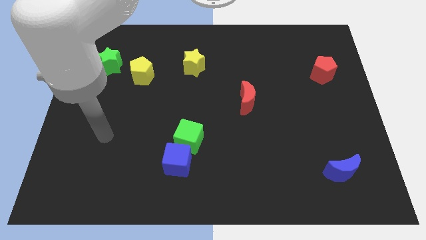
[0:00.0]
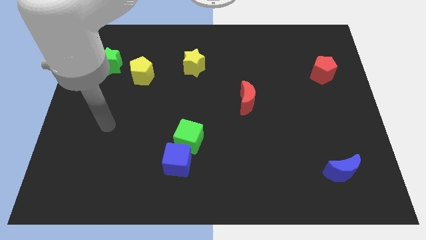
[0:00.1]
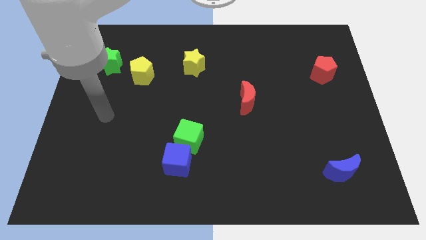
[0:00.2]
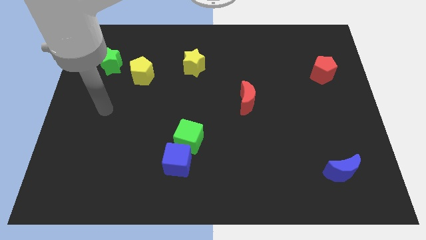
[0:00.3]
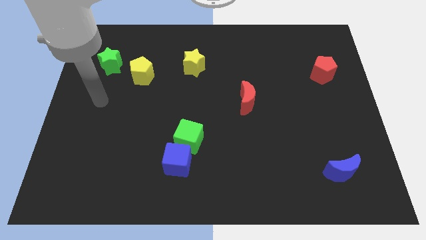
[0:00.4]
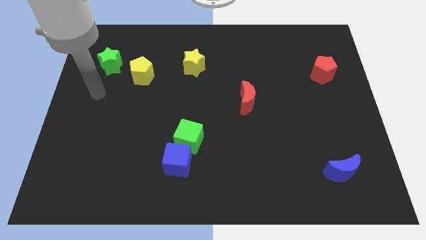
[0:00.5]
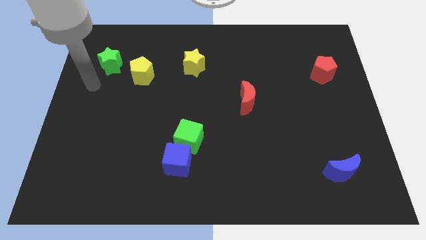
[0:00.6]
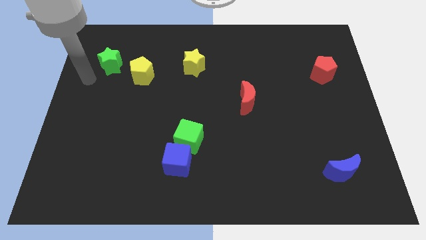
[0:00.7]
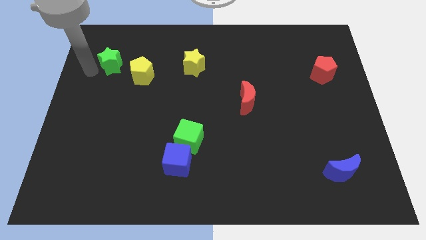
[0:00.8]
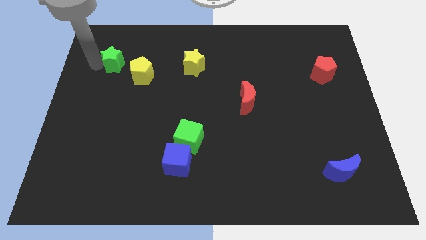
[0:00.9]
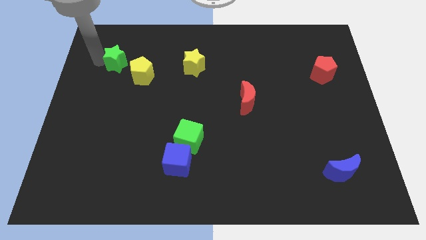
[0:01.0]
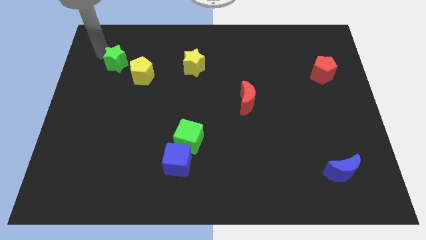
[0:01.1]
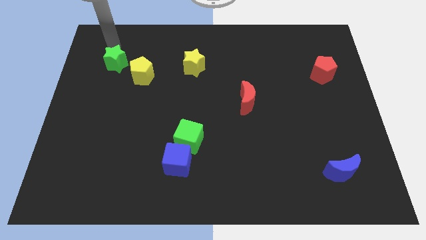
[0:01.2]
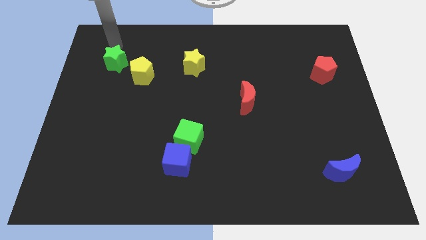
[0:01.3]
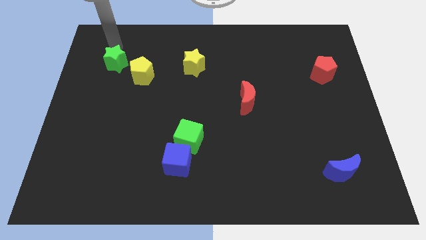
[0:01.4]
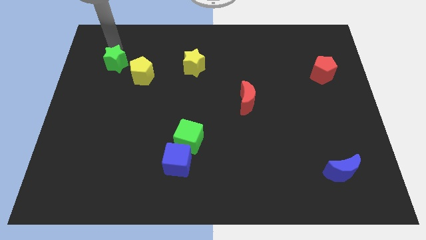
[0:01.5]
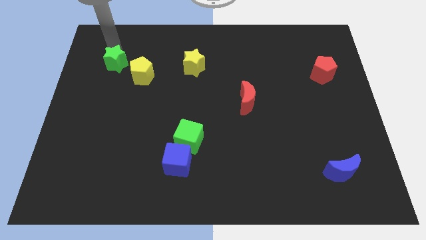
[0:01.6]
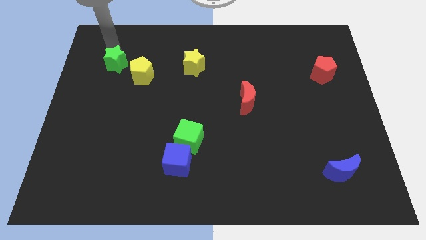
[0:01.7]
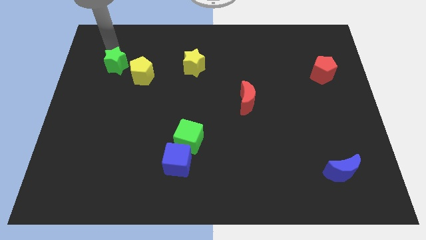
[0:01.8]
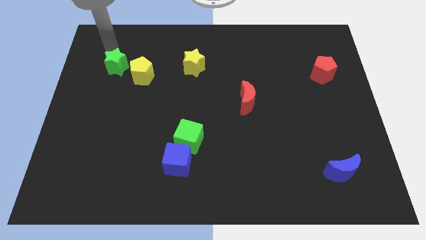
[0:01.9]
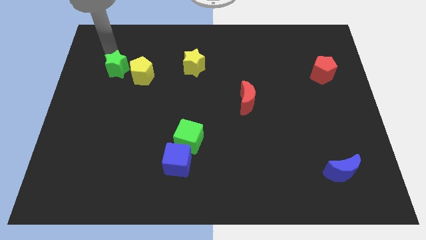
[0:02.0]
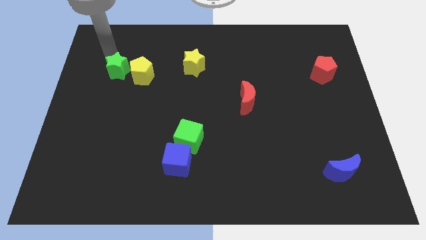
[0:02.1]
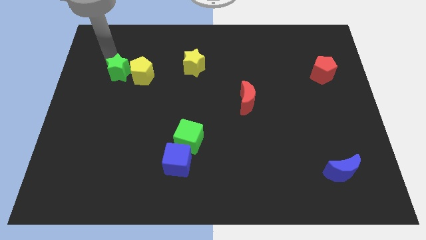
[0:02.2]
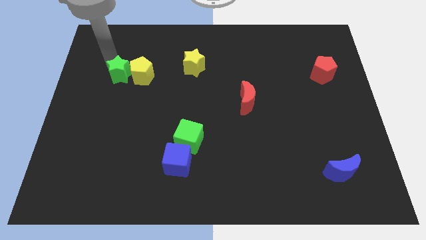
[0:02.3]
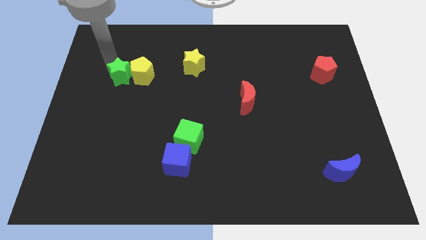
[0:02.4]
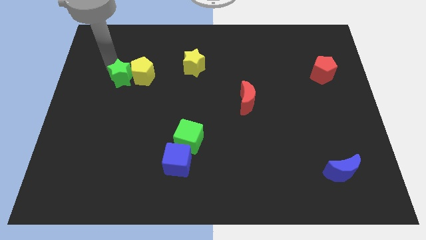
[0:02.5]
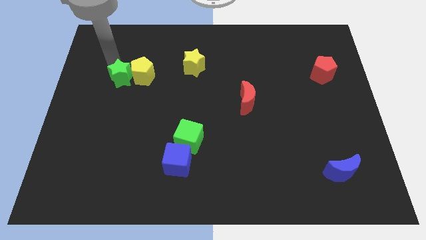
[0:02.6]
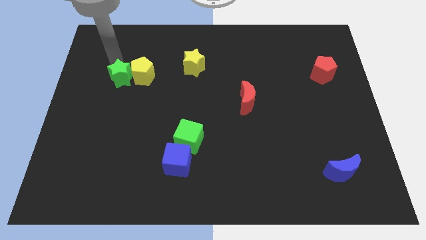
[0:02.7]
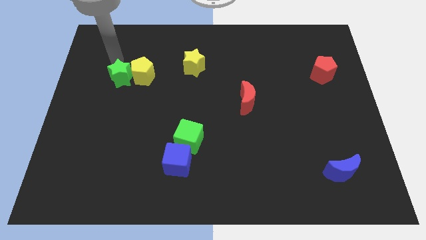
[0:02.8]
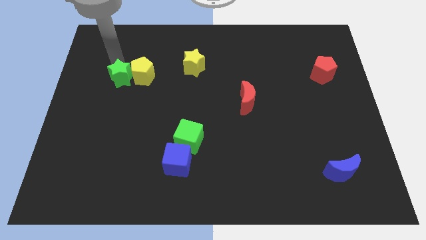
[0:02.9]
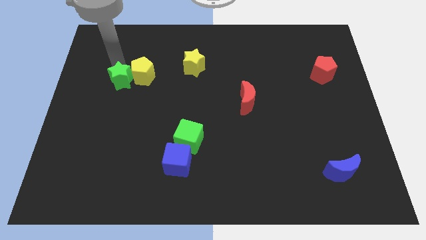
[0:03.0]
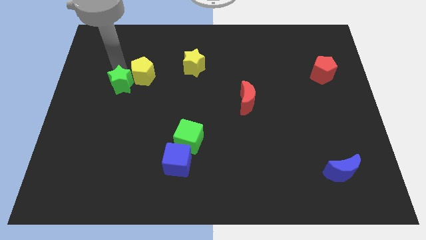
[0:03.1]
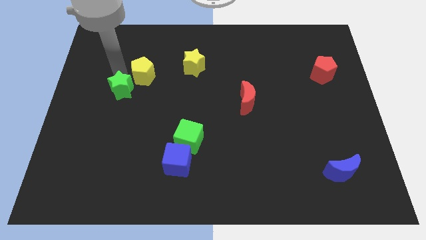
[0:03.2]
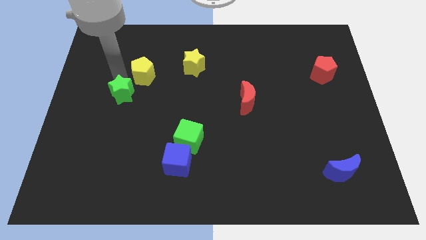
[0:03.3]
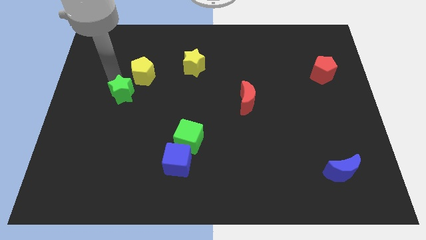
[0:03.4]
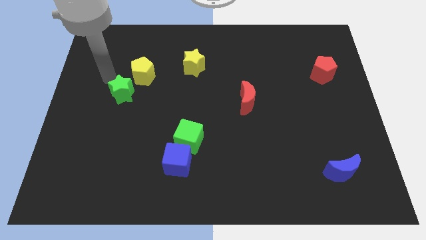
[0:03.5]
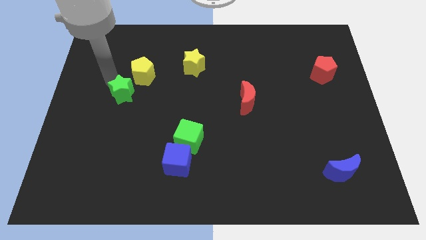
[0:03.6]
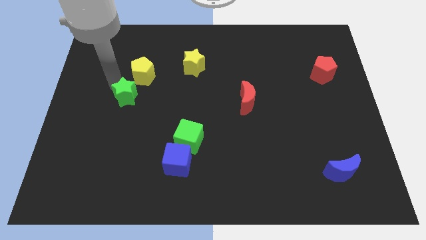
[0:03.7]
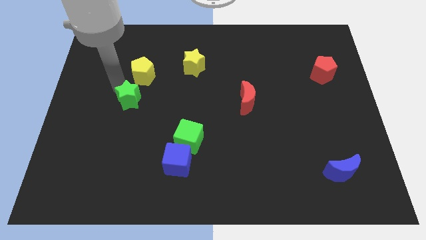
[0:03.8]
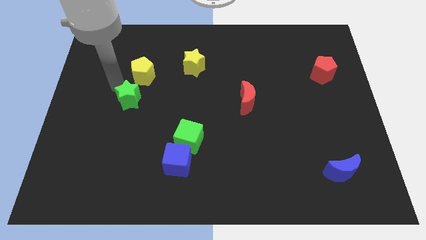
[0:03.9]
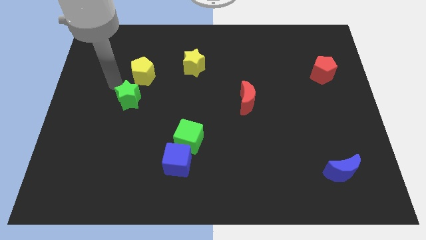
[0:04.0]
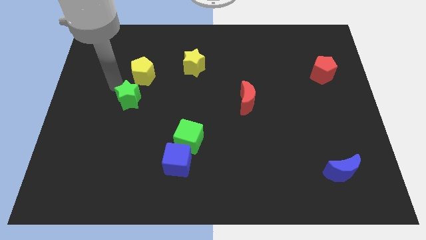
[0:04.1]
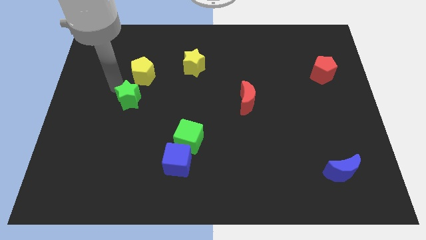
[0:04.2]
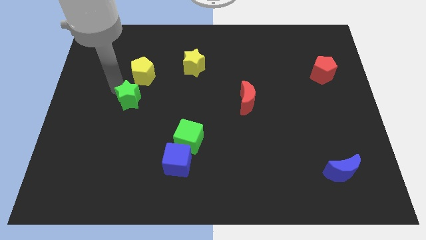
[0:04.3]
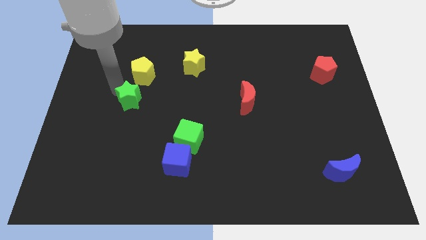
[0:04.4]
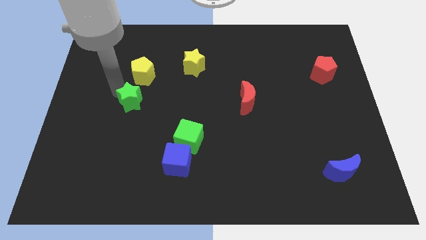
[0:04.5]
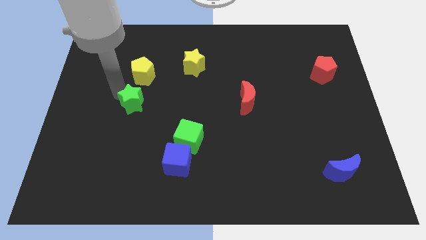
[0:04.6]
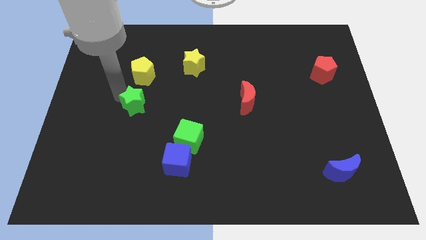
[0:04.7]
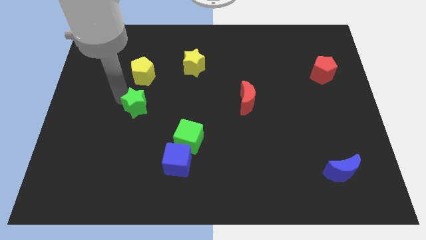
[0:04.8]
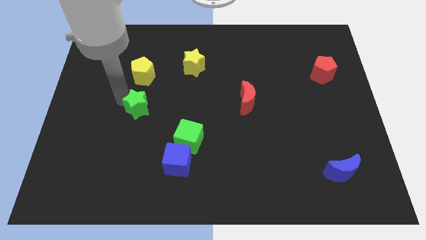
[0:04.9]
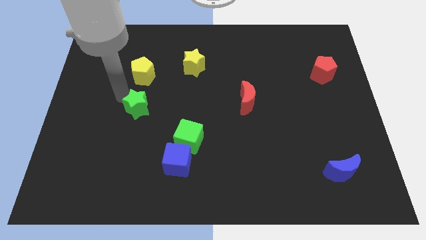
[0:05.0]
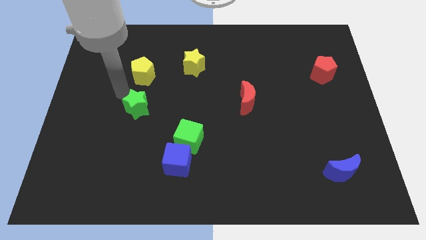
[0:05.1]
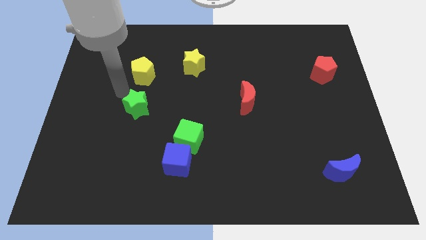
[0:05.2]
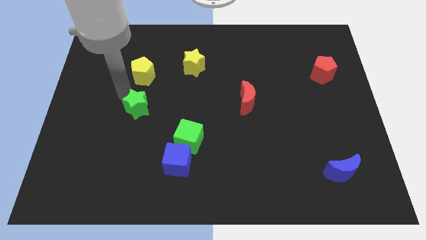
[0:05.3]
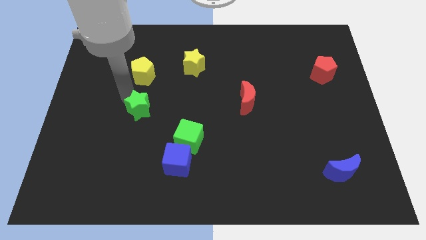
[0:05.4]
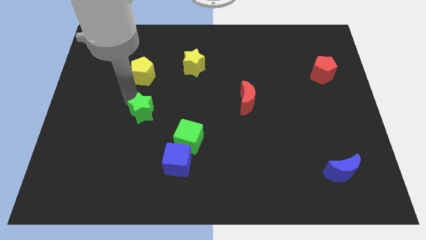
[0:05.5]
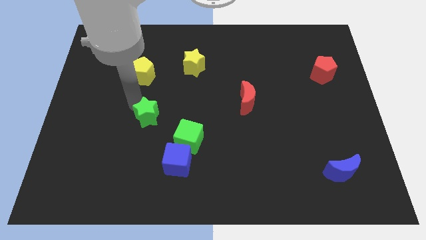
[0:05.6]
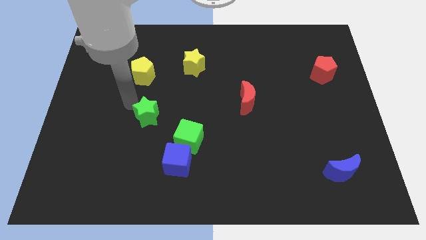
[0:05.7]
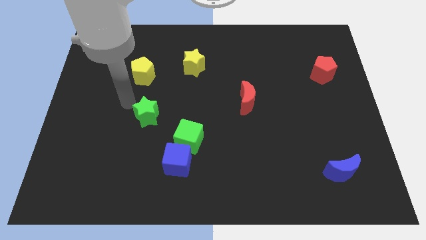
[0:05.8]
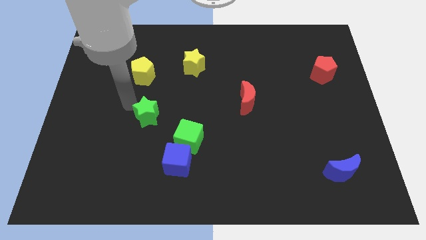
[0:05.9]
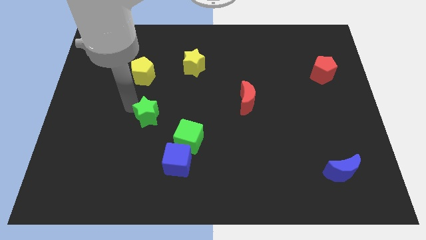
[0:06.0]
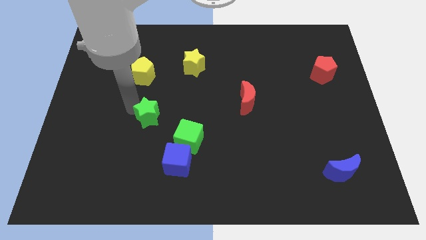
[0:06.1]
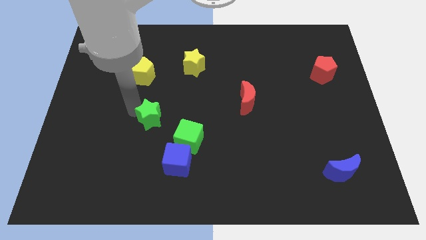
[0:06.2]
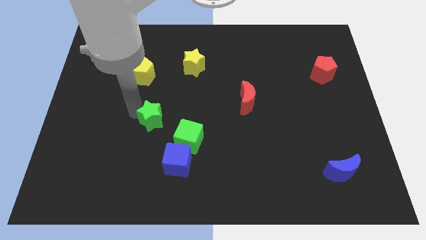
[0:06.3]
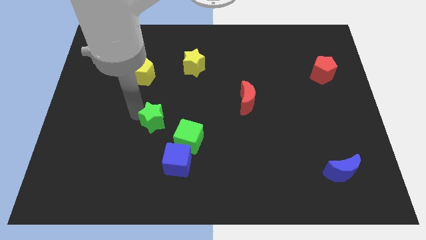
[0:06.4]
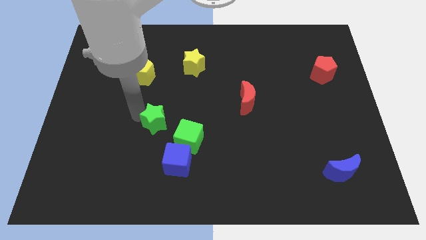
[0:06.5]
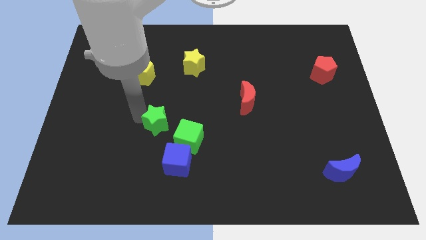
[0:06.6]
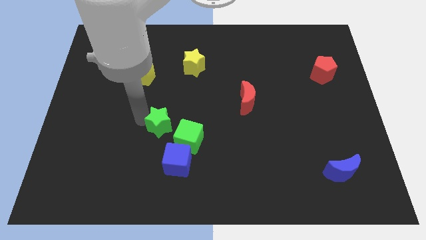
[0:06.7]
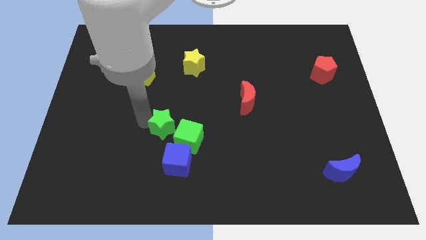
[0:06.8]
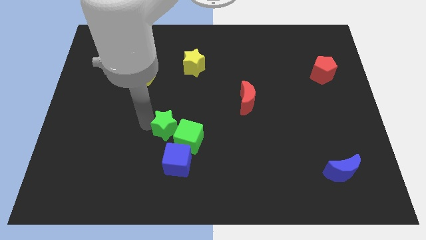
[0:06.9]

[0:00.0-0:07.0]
move the green star towards the green cube
